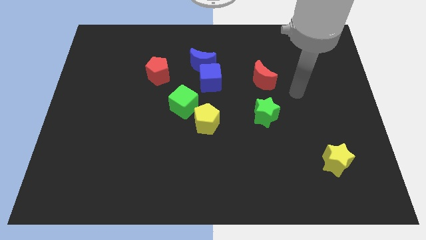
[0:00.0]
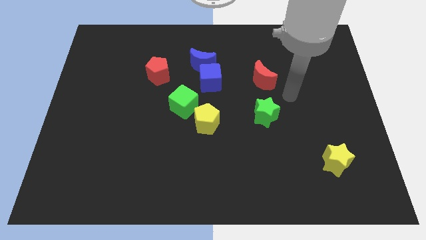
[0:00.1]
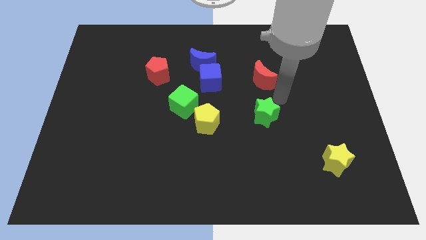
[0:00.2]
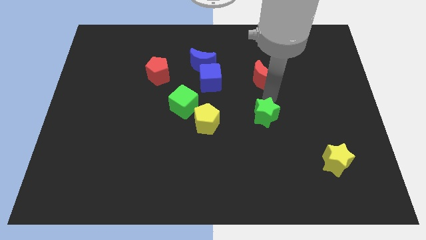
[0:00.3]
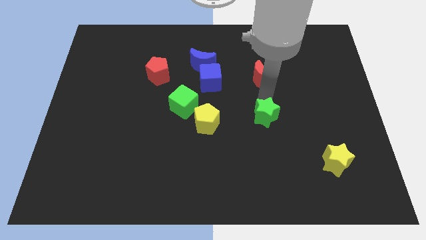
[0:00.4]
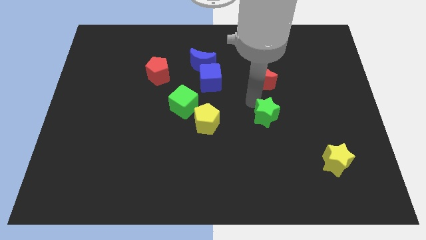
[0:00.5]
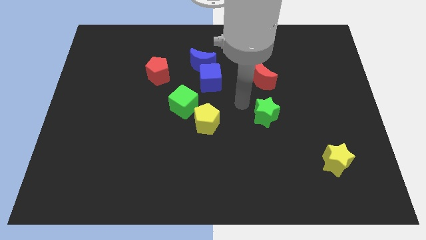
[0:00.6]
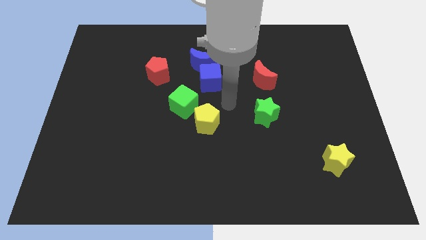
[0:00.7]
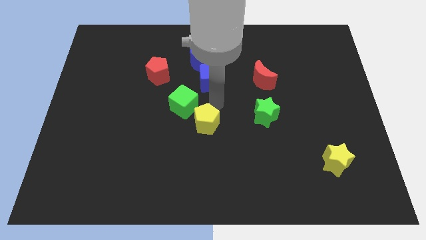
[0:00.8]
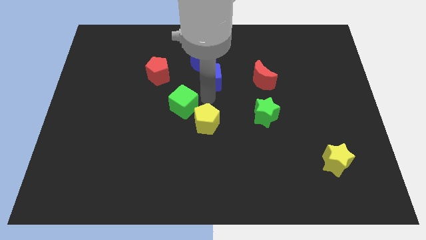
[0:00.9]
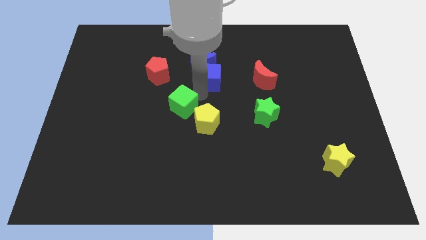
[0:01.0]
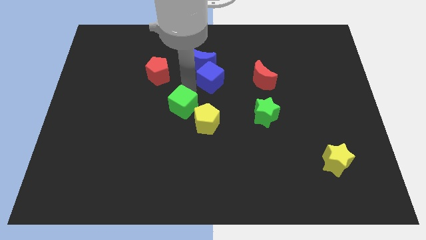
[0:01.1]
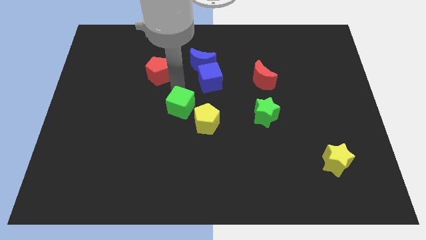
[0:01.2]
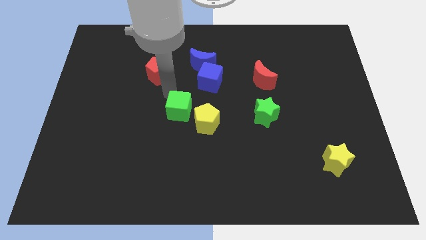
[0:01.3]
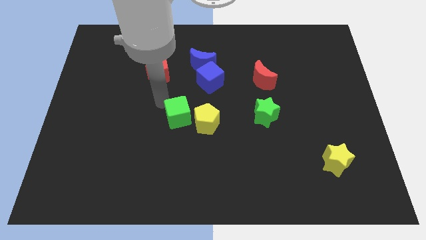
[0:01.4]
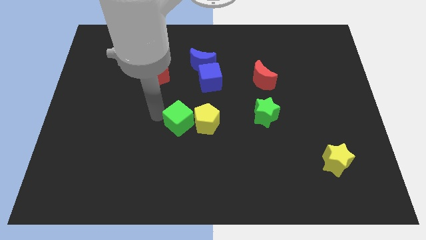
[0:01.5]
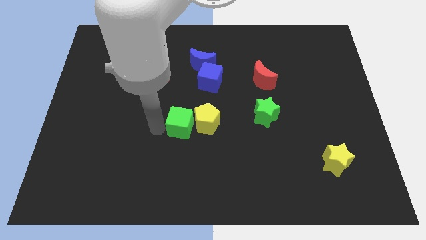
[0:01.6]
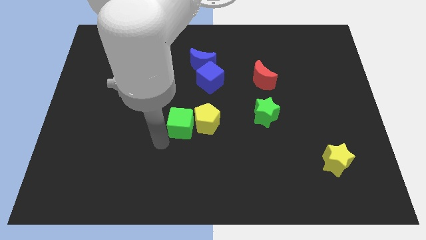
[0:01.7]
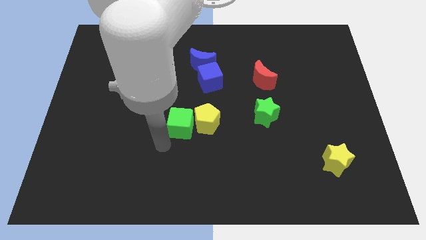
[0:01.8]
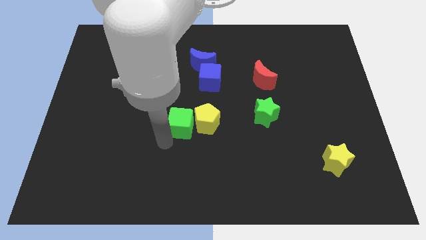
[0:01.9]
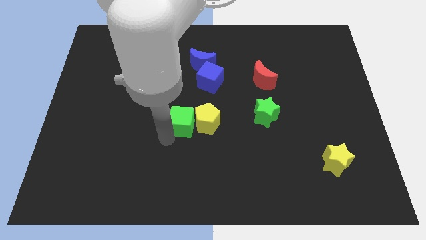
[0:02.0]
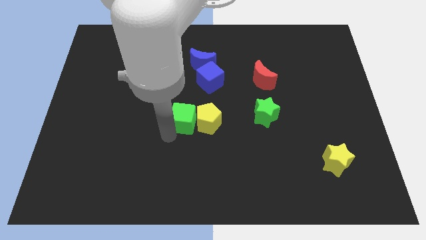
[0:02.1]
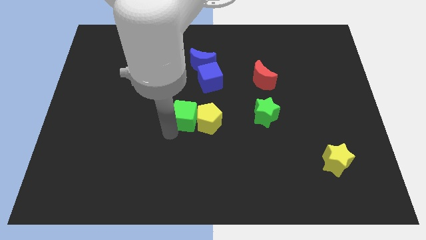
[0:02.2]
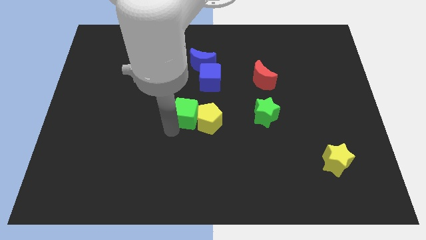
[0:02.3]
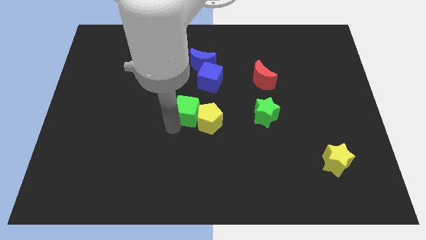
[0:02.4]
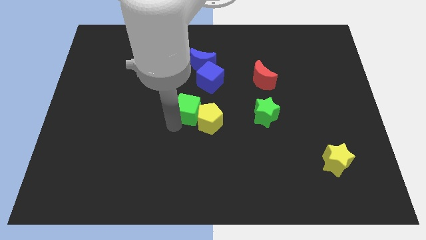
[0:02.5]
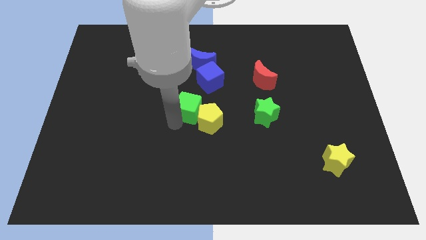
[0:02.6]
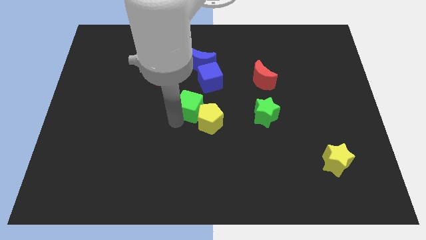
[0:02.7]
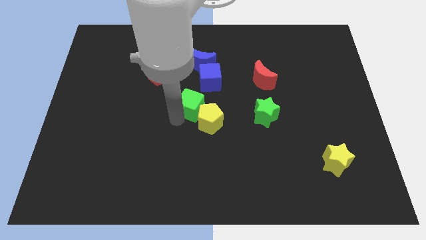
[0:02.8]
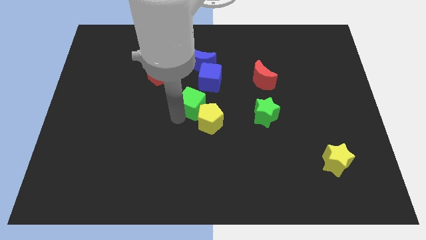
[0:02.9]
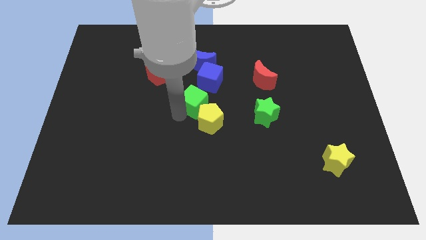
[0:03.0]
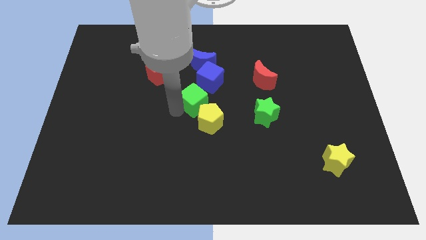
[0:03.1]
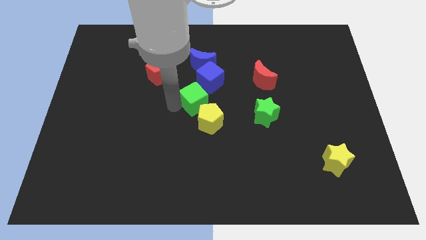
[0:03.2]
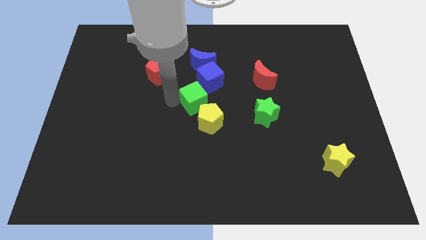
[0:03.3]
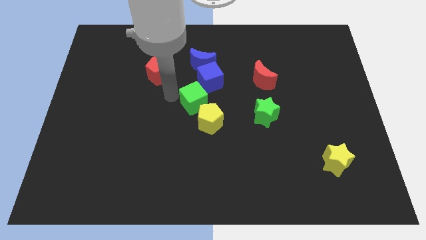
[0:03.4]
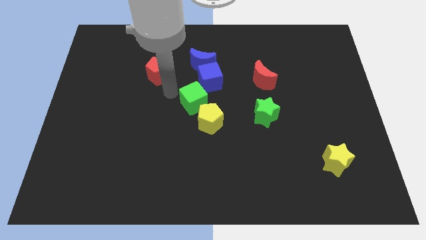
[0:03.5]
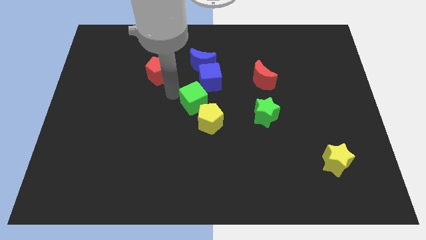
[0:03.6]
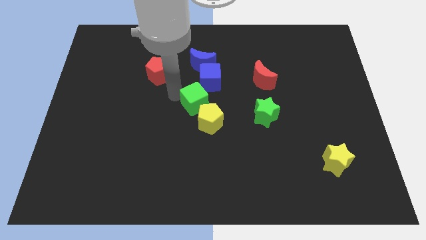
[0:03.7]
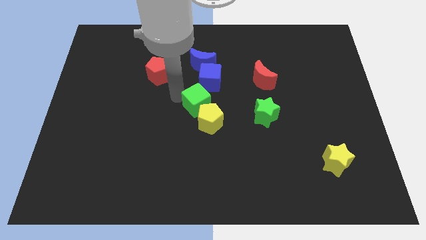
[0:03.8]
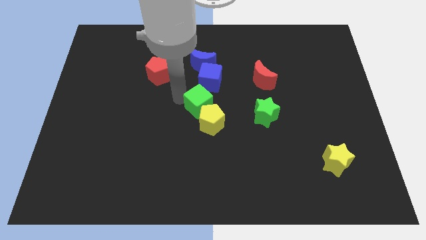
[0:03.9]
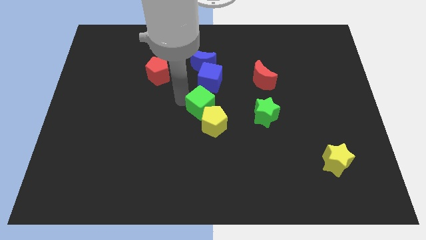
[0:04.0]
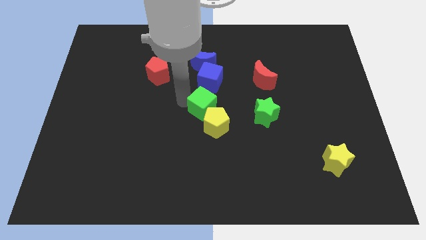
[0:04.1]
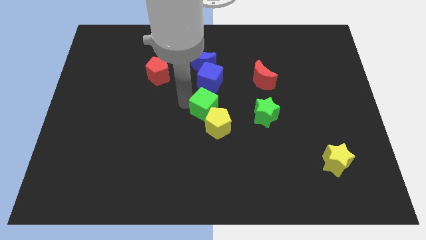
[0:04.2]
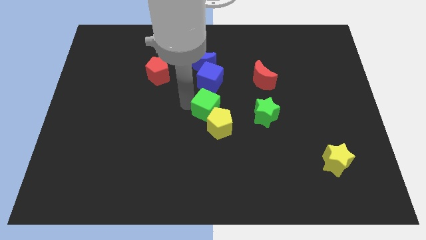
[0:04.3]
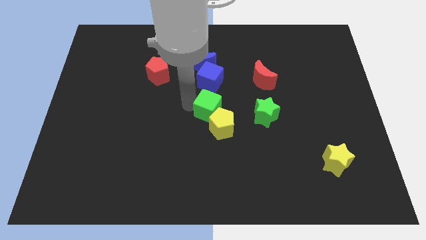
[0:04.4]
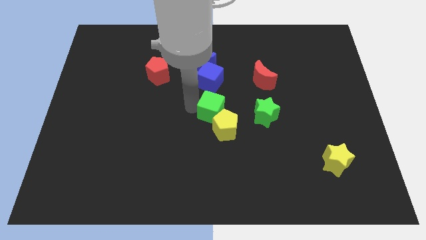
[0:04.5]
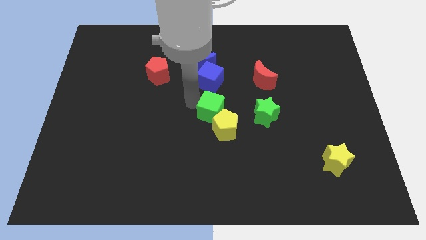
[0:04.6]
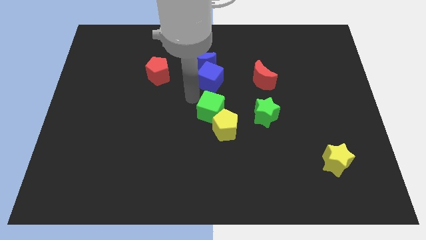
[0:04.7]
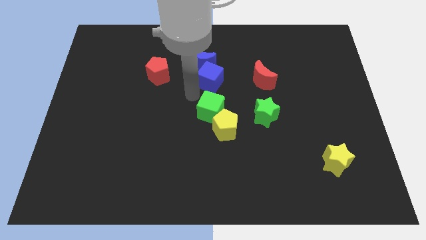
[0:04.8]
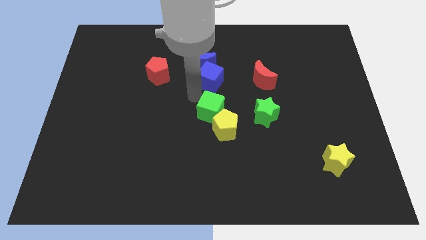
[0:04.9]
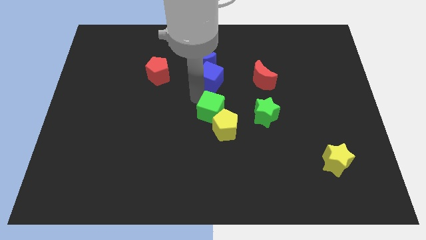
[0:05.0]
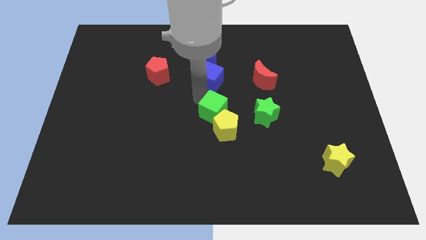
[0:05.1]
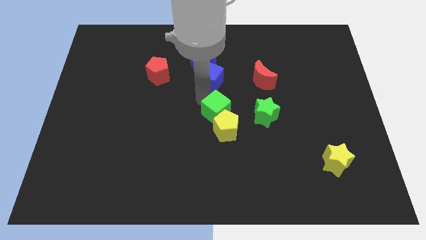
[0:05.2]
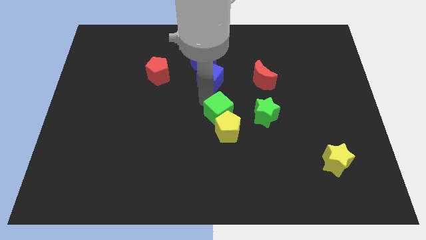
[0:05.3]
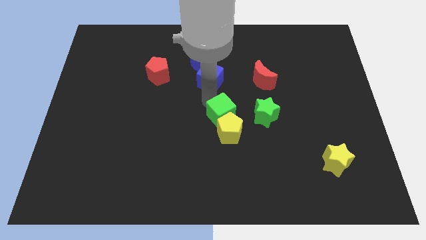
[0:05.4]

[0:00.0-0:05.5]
slide the green cube a little downwards and then right

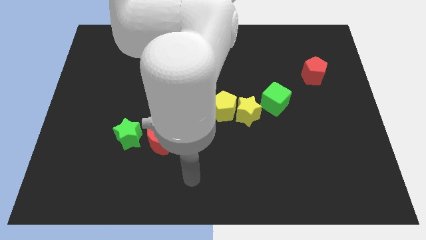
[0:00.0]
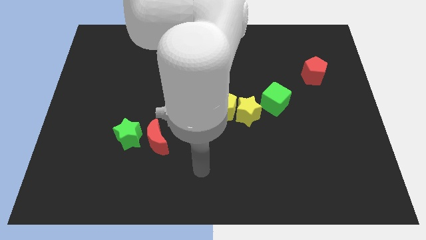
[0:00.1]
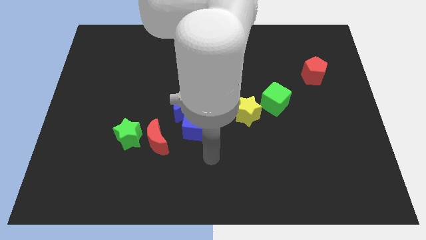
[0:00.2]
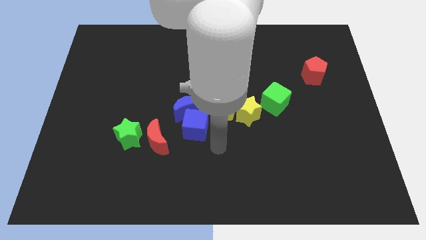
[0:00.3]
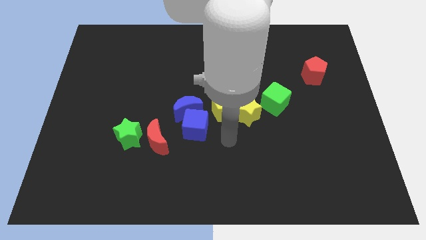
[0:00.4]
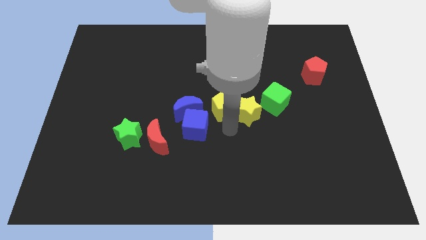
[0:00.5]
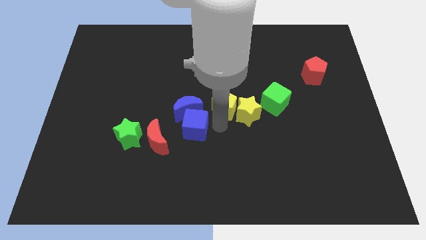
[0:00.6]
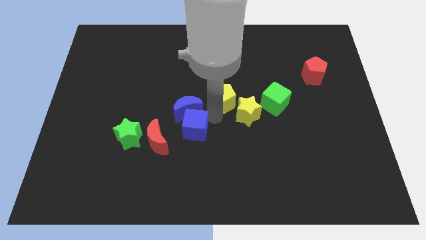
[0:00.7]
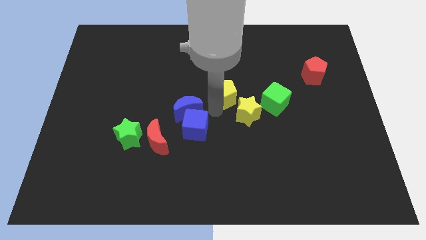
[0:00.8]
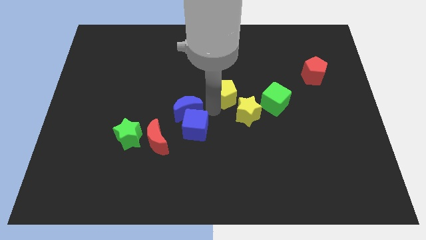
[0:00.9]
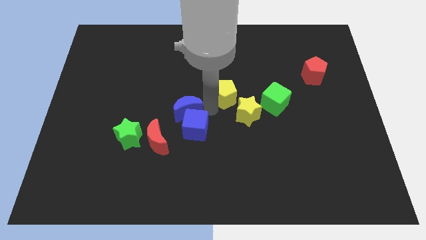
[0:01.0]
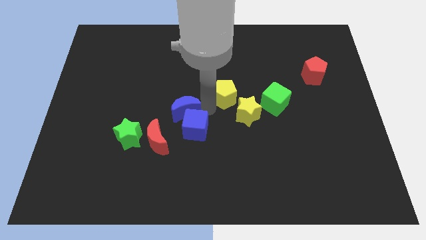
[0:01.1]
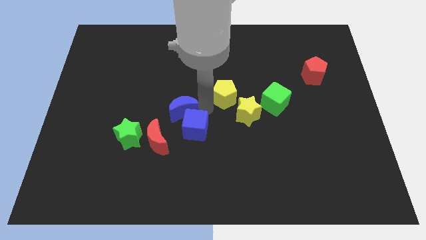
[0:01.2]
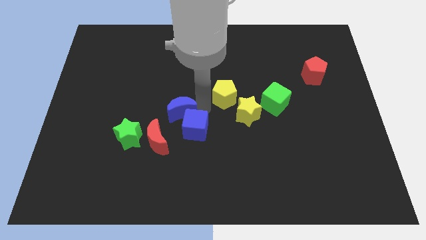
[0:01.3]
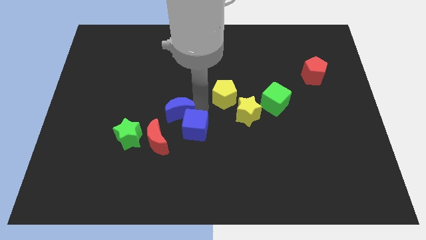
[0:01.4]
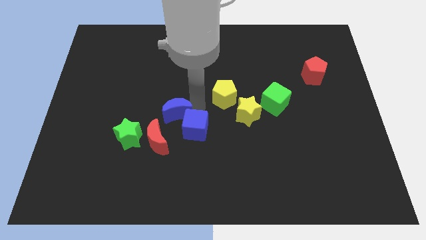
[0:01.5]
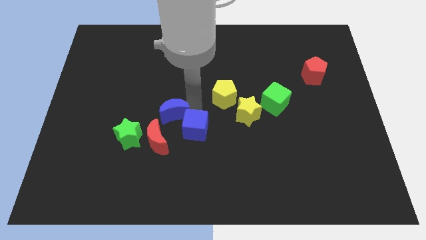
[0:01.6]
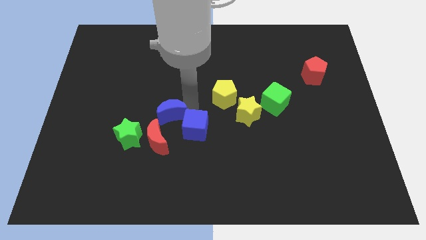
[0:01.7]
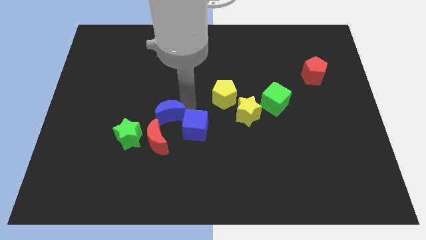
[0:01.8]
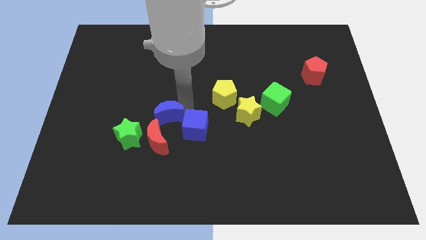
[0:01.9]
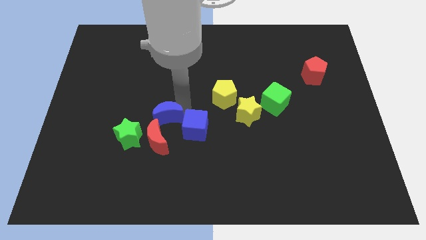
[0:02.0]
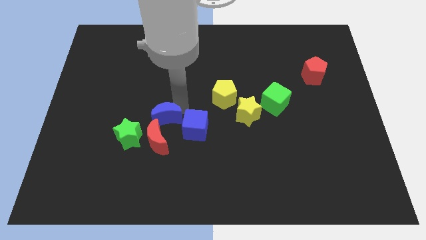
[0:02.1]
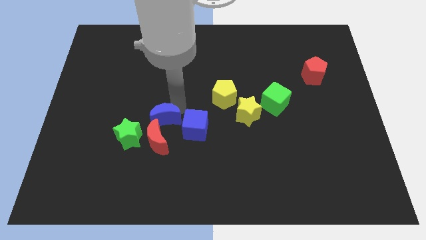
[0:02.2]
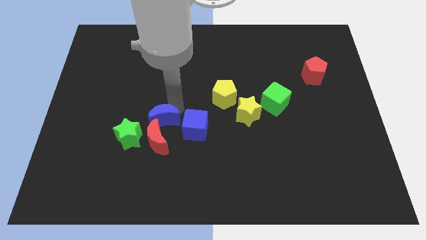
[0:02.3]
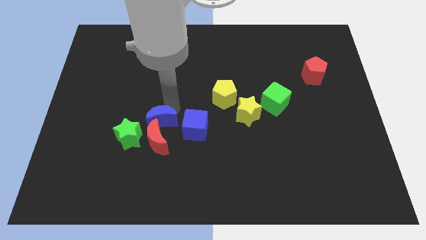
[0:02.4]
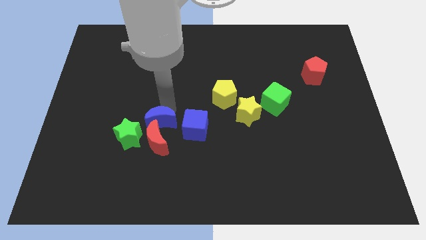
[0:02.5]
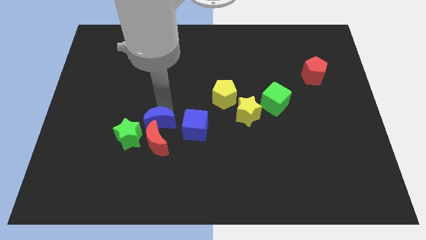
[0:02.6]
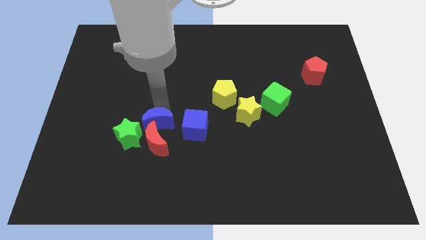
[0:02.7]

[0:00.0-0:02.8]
move the blue moon slightly diagonally downwards and left
